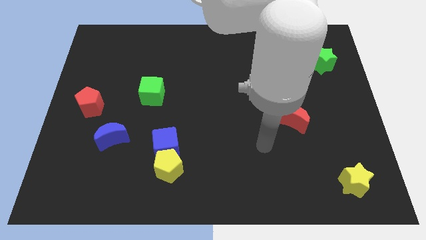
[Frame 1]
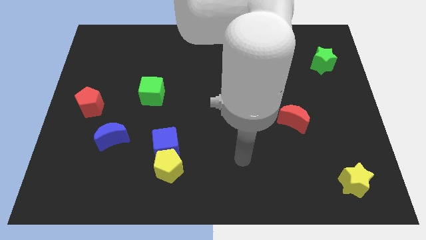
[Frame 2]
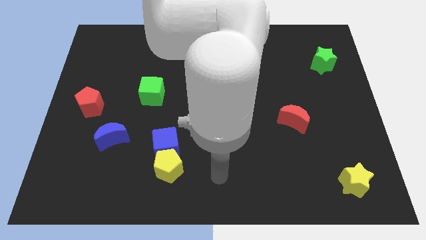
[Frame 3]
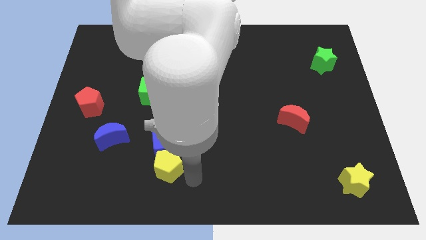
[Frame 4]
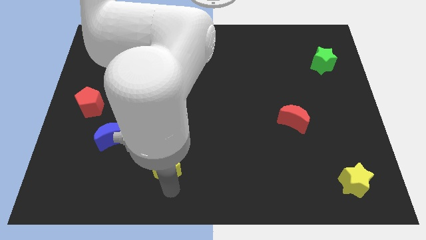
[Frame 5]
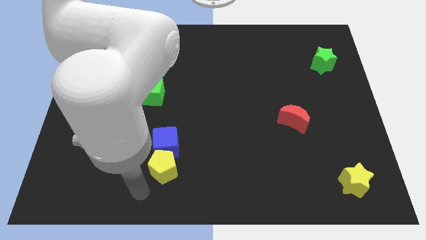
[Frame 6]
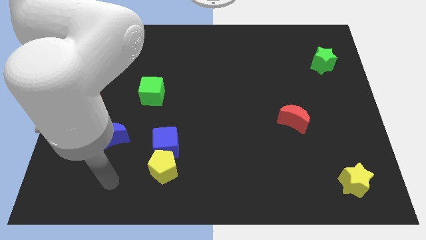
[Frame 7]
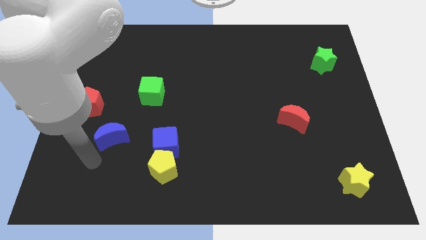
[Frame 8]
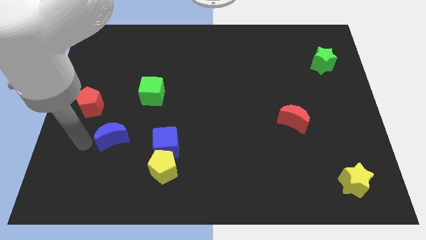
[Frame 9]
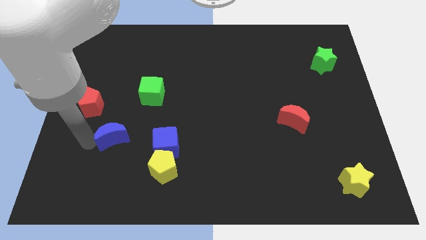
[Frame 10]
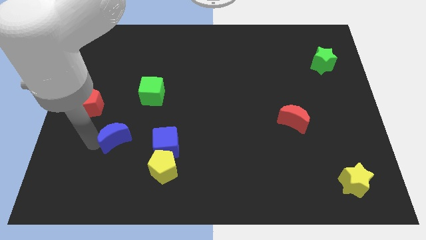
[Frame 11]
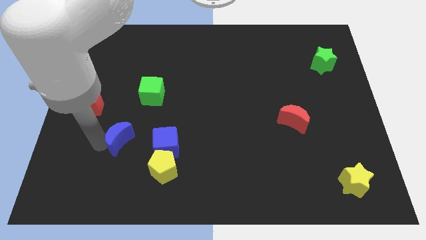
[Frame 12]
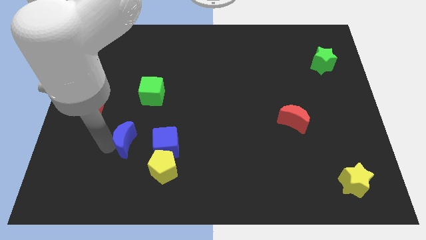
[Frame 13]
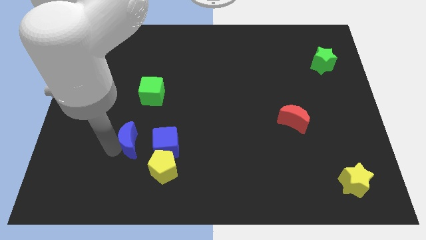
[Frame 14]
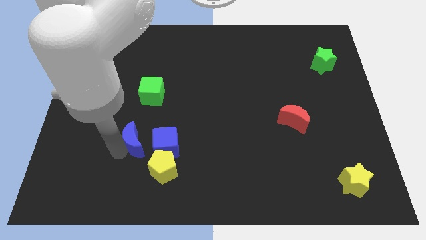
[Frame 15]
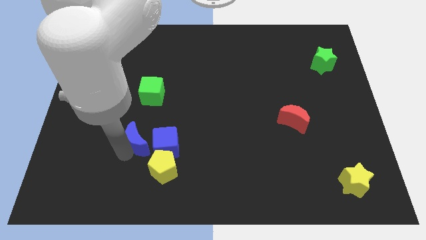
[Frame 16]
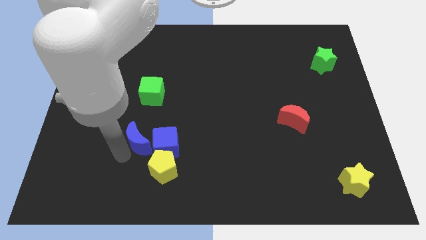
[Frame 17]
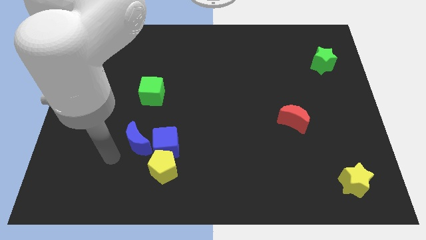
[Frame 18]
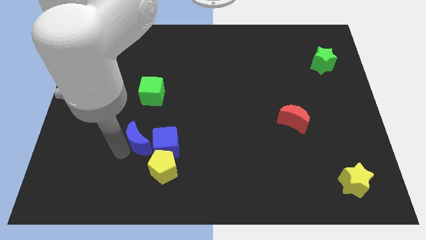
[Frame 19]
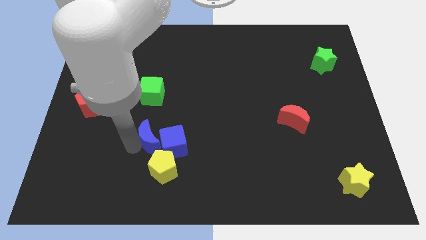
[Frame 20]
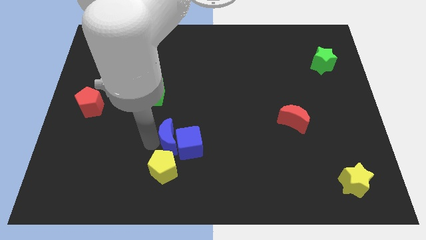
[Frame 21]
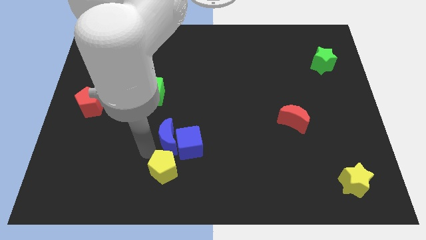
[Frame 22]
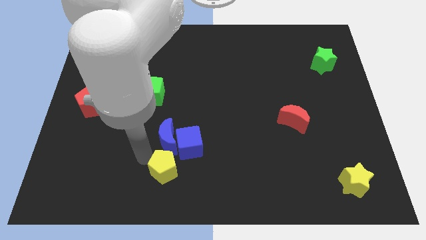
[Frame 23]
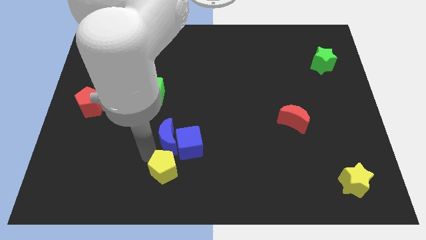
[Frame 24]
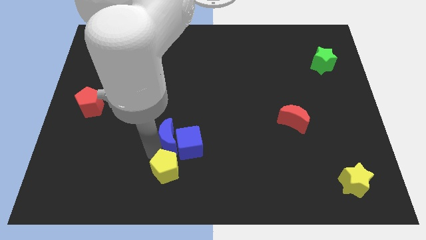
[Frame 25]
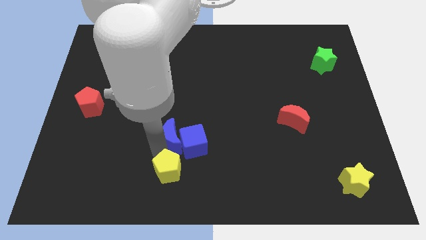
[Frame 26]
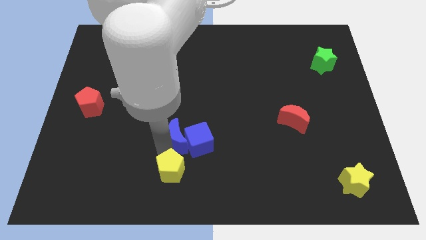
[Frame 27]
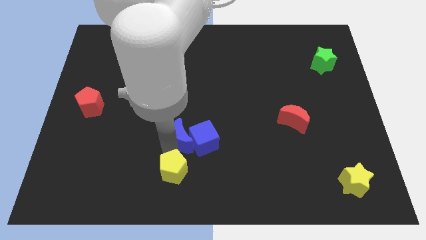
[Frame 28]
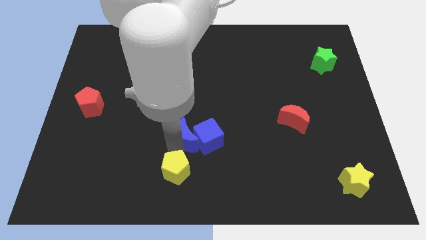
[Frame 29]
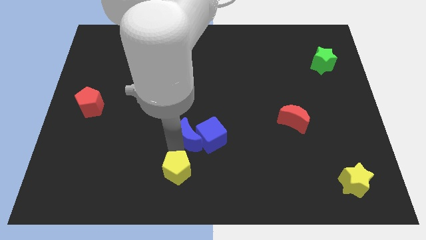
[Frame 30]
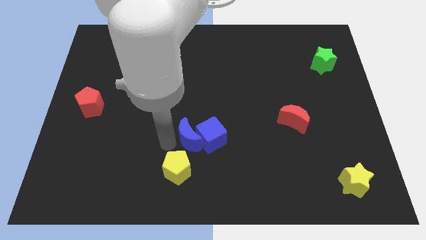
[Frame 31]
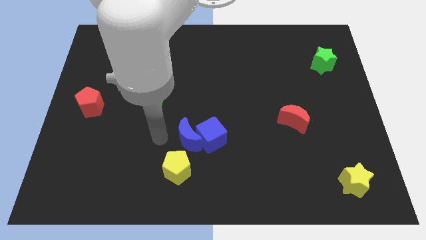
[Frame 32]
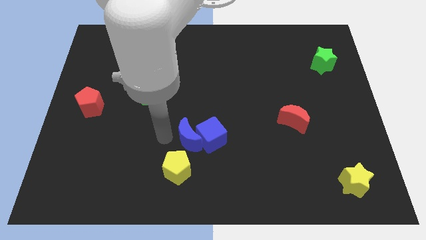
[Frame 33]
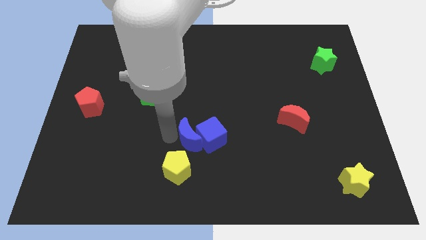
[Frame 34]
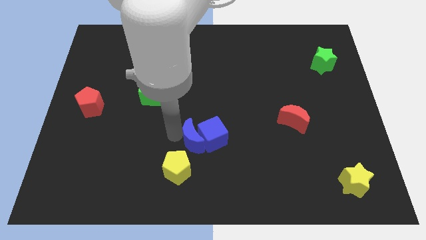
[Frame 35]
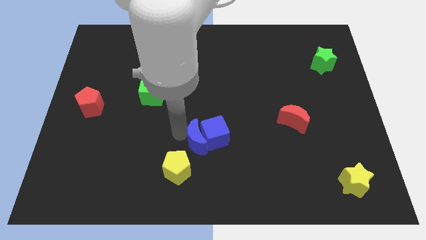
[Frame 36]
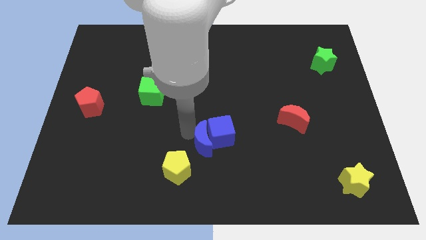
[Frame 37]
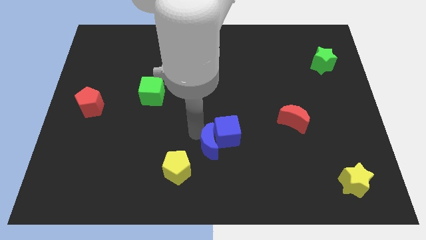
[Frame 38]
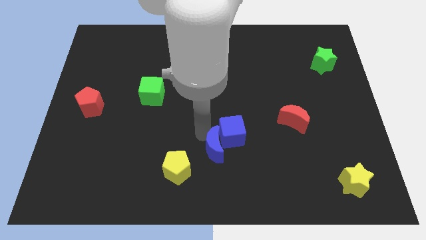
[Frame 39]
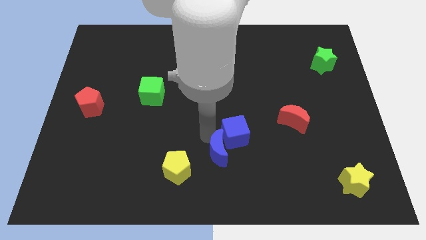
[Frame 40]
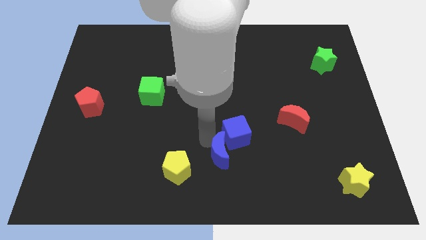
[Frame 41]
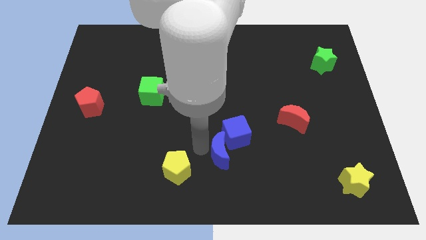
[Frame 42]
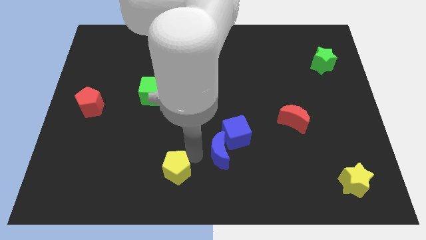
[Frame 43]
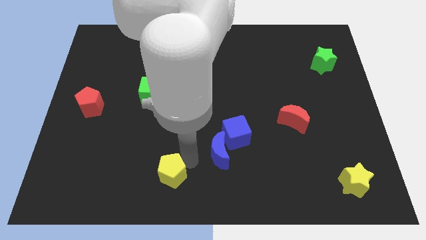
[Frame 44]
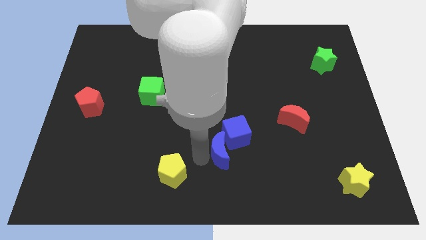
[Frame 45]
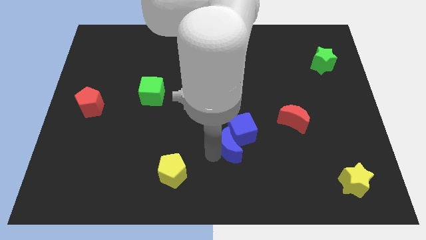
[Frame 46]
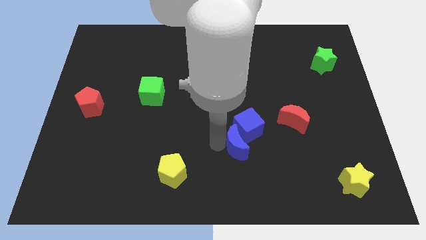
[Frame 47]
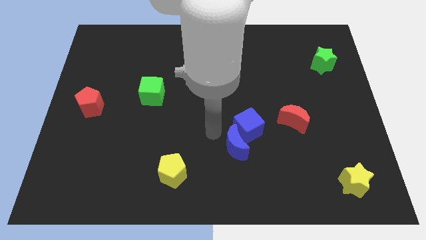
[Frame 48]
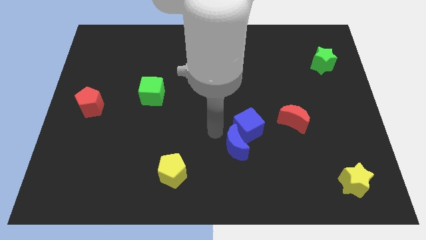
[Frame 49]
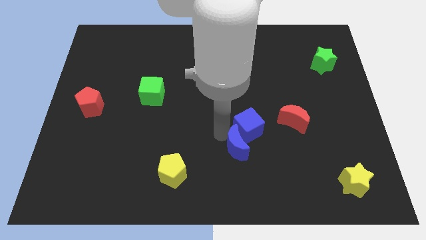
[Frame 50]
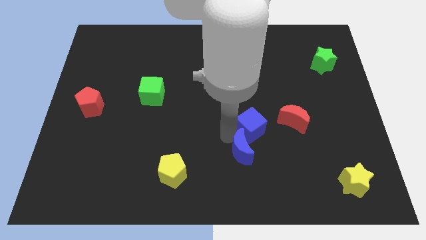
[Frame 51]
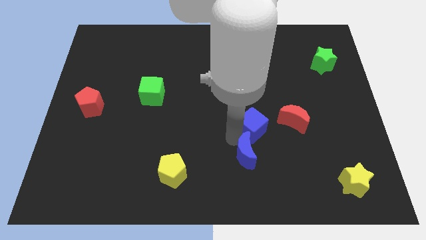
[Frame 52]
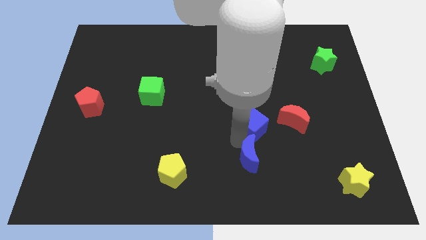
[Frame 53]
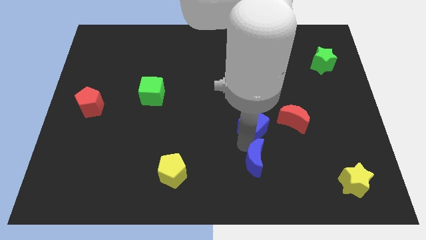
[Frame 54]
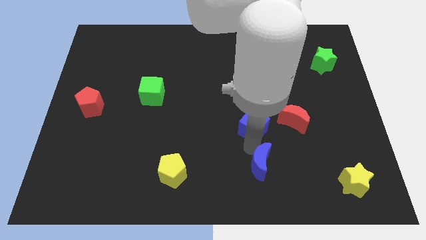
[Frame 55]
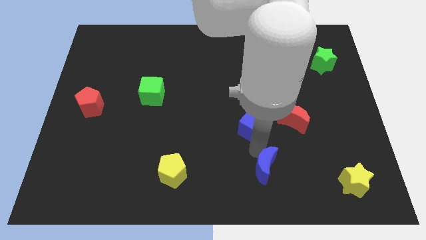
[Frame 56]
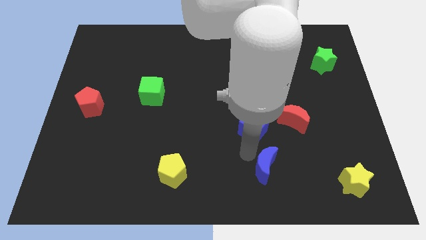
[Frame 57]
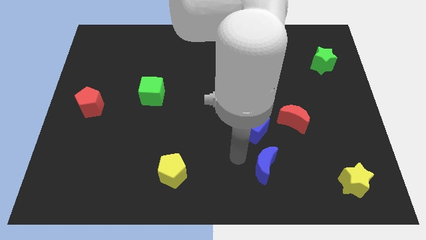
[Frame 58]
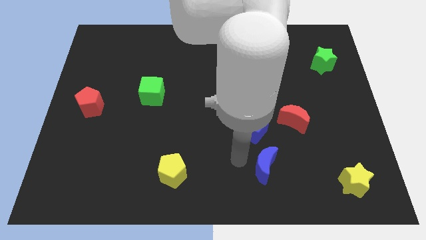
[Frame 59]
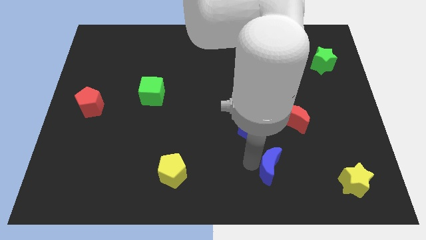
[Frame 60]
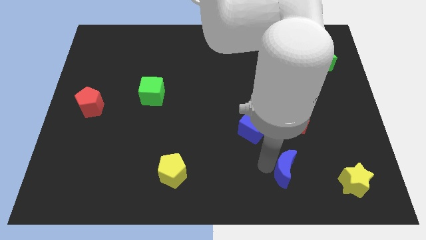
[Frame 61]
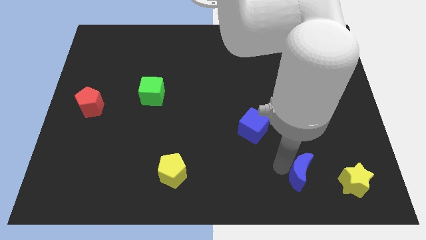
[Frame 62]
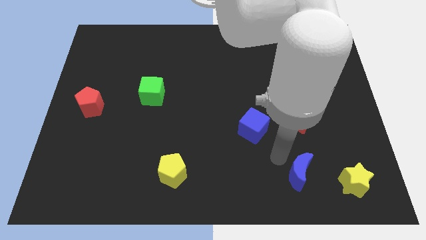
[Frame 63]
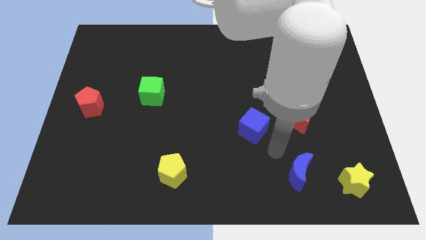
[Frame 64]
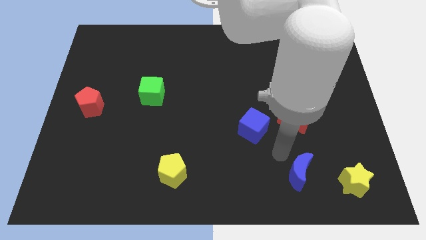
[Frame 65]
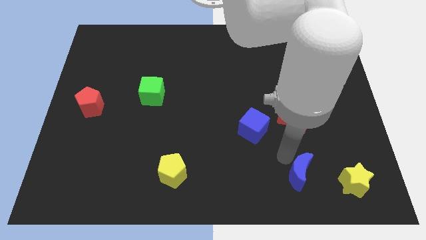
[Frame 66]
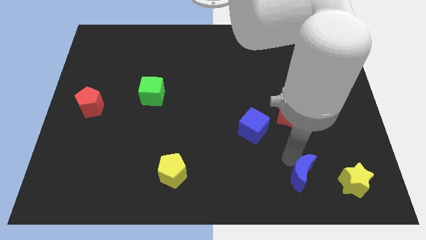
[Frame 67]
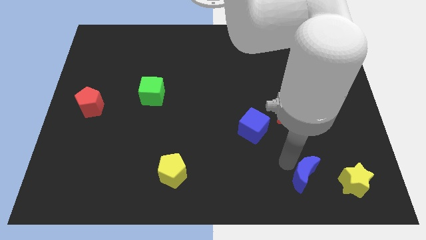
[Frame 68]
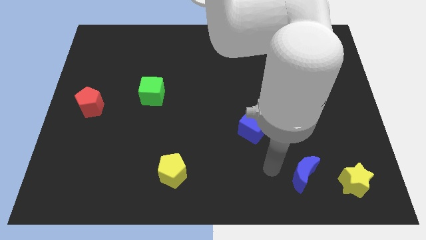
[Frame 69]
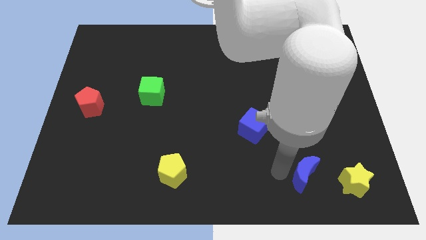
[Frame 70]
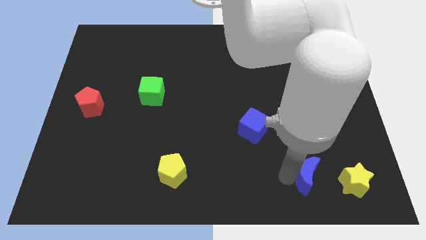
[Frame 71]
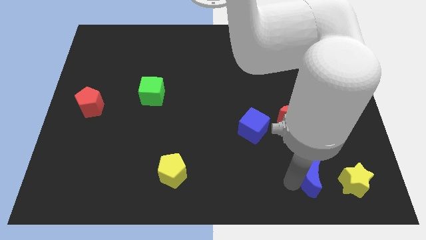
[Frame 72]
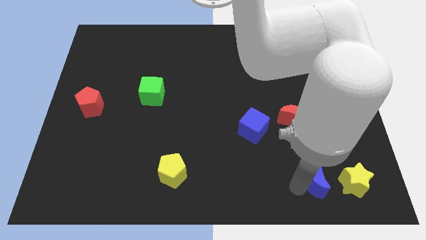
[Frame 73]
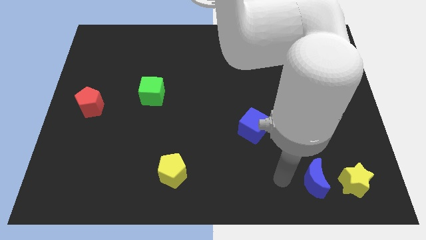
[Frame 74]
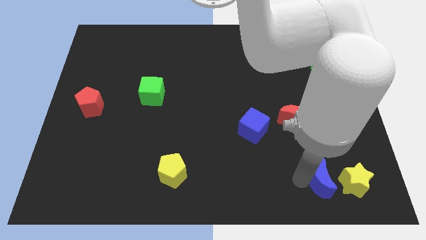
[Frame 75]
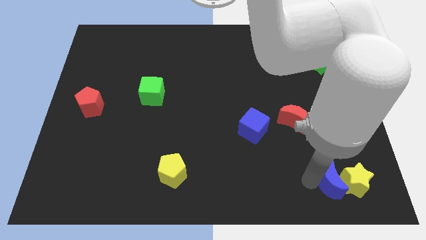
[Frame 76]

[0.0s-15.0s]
push the blue moon next to the yellow star
